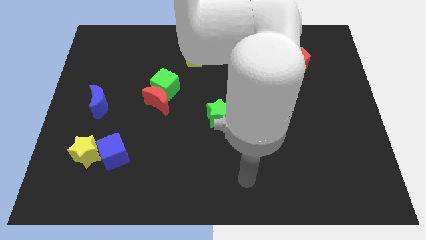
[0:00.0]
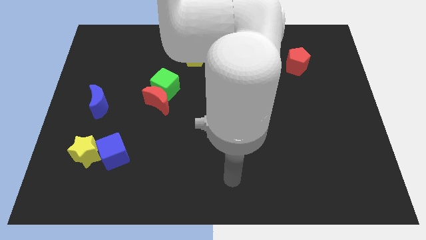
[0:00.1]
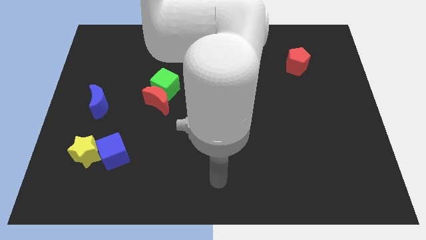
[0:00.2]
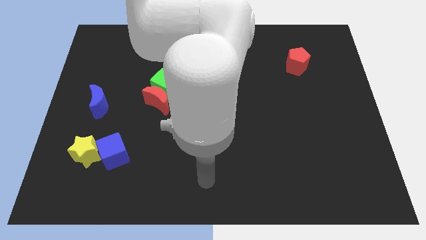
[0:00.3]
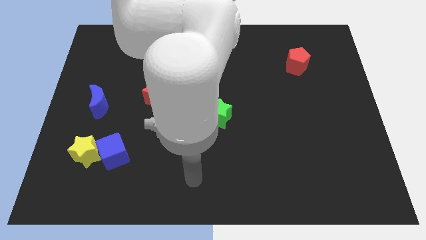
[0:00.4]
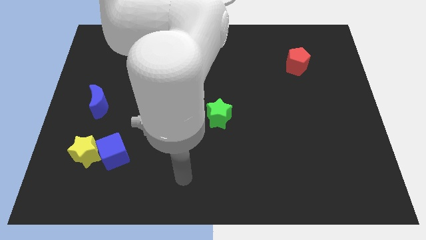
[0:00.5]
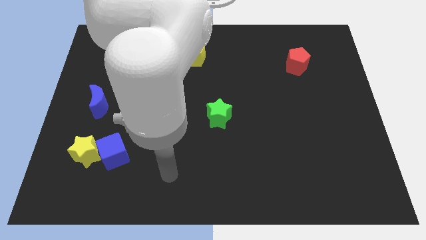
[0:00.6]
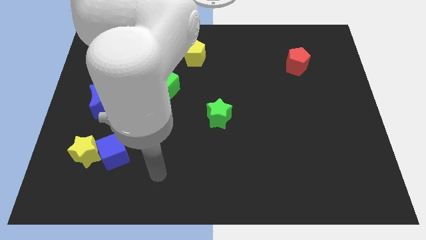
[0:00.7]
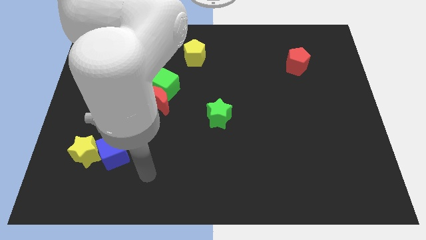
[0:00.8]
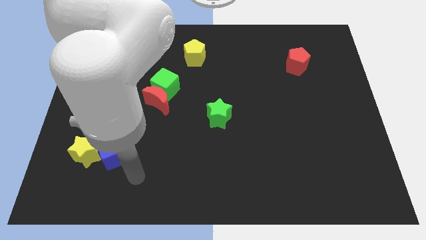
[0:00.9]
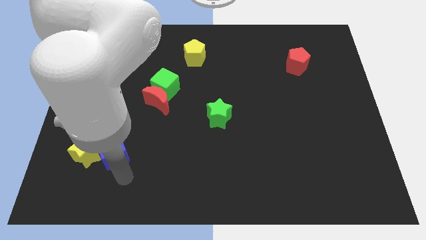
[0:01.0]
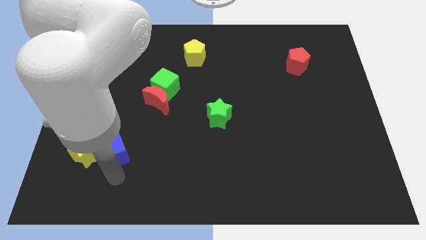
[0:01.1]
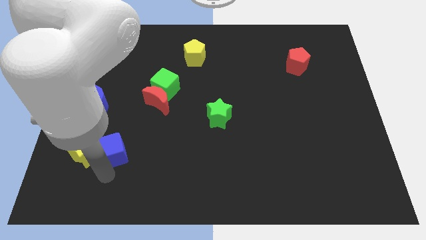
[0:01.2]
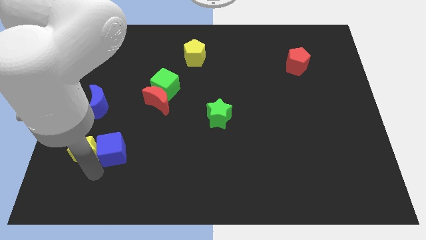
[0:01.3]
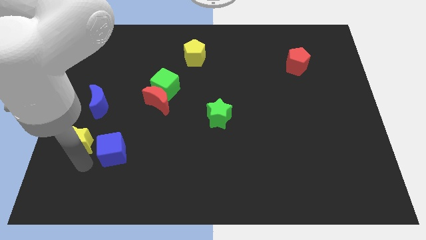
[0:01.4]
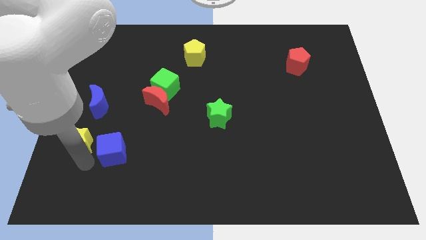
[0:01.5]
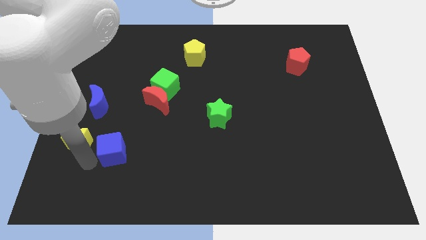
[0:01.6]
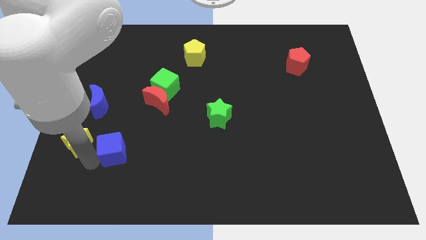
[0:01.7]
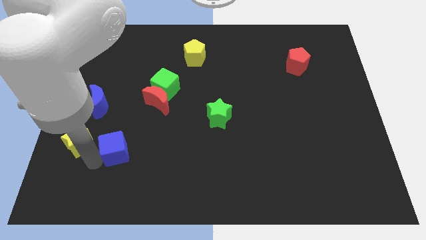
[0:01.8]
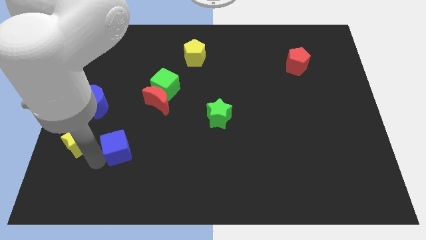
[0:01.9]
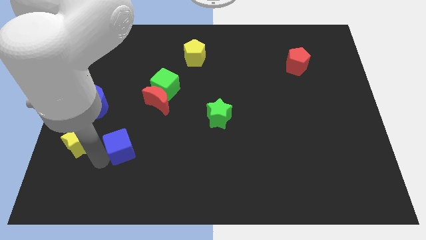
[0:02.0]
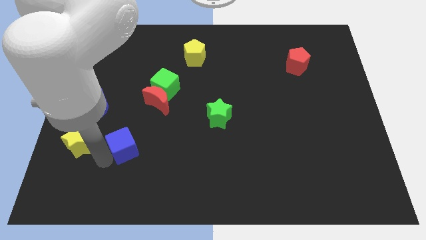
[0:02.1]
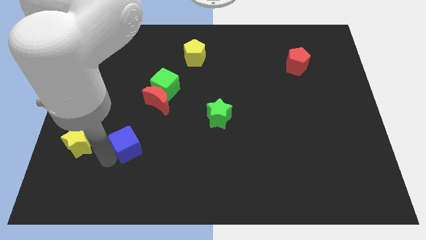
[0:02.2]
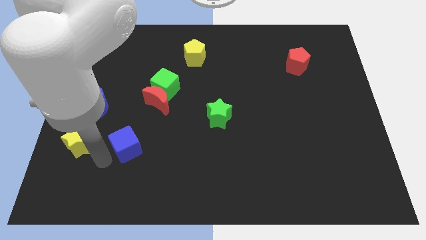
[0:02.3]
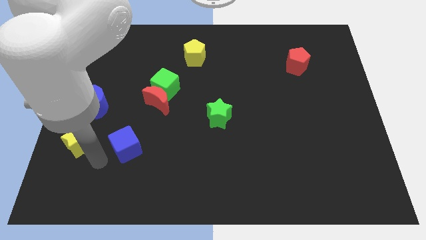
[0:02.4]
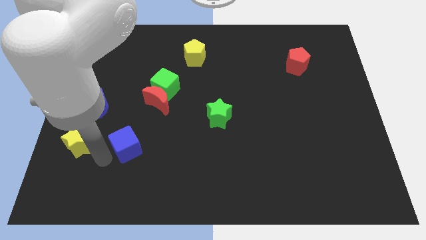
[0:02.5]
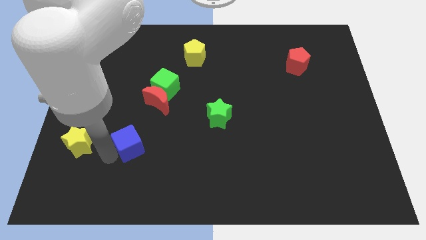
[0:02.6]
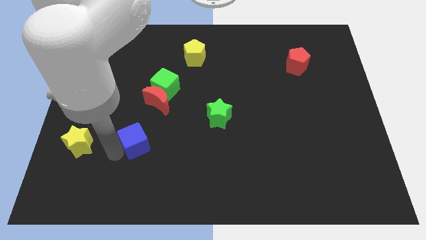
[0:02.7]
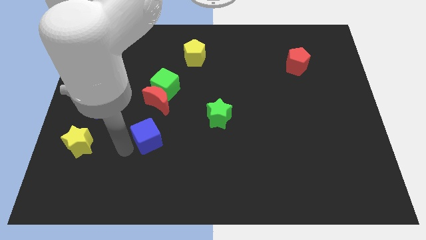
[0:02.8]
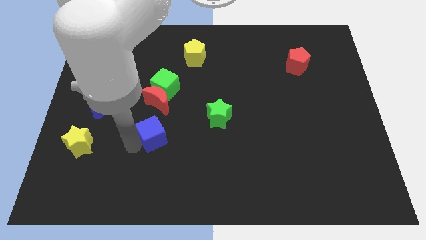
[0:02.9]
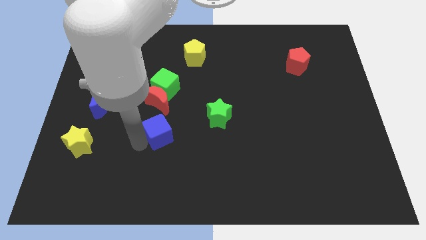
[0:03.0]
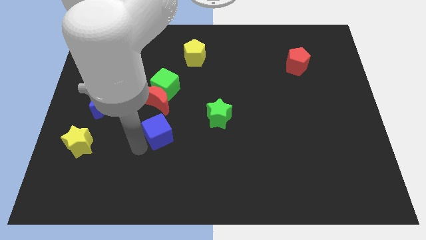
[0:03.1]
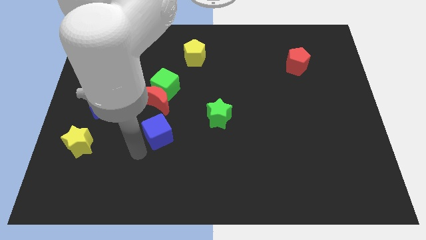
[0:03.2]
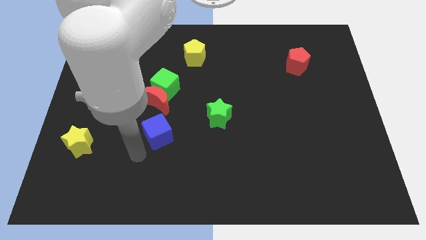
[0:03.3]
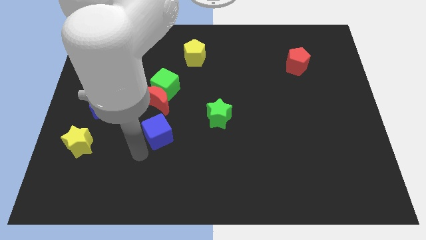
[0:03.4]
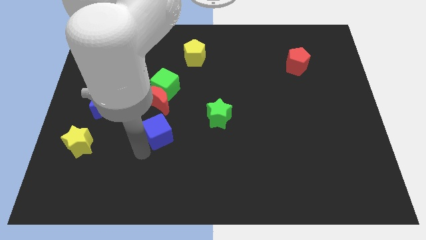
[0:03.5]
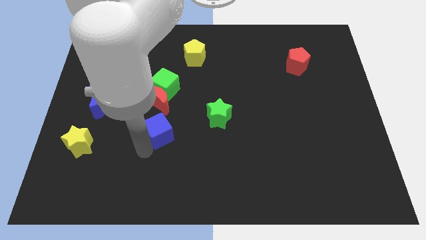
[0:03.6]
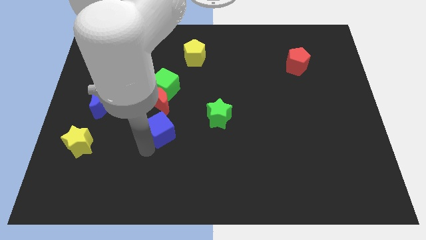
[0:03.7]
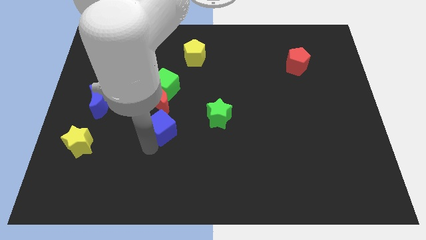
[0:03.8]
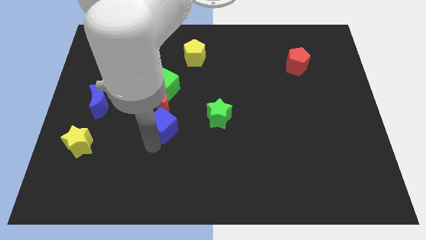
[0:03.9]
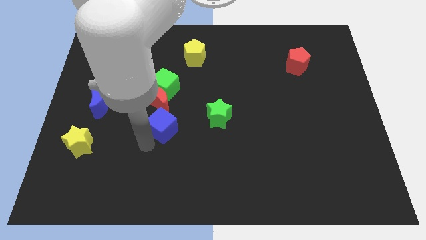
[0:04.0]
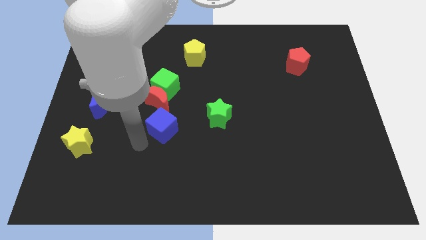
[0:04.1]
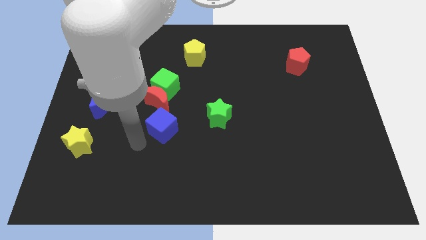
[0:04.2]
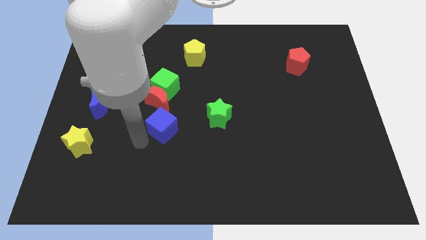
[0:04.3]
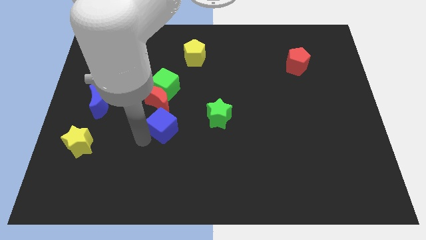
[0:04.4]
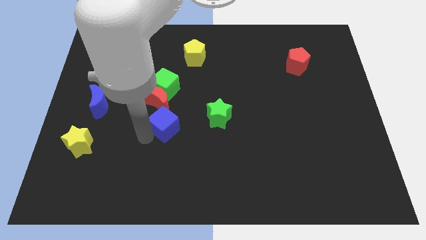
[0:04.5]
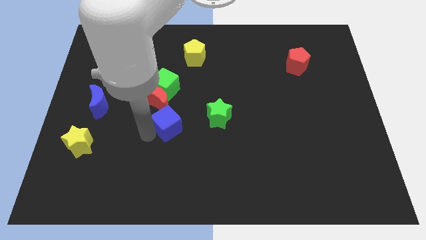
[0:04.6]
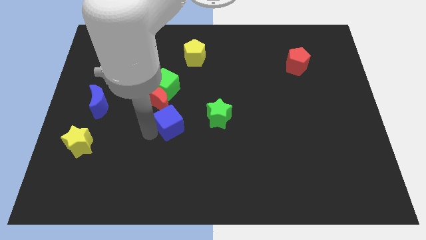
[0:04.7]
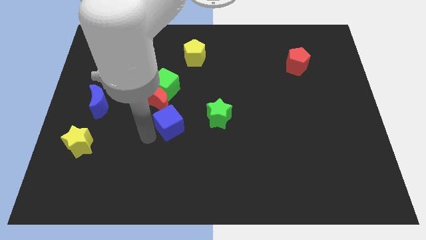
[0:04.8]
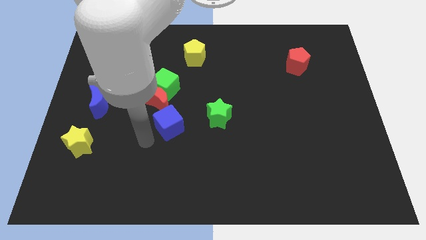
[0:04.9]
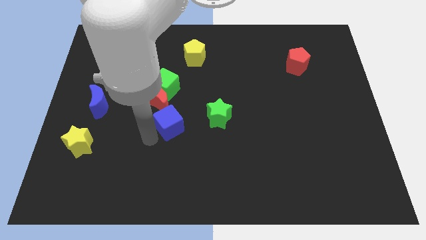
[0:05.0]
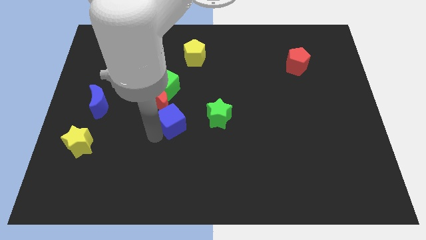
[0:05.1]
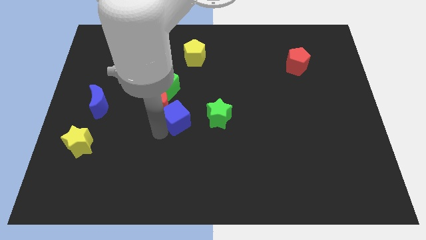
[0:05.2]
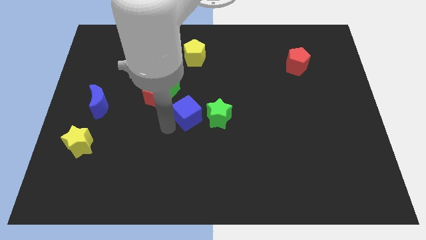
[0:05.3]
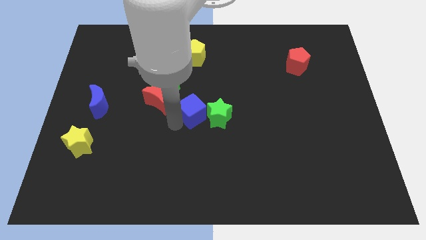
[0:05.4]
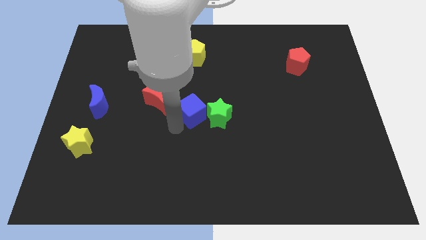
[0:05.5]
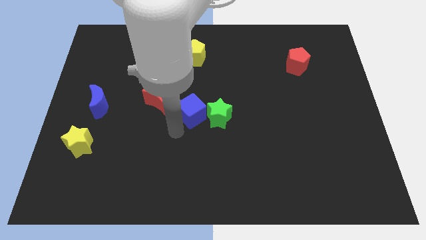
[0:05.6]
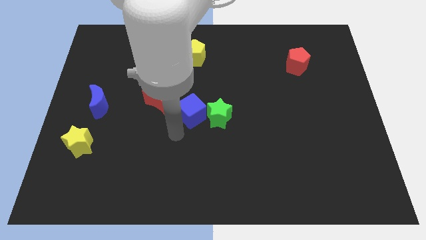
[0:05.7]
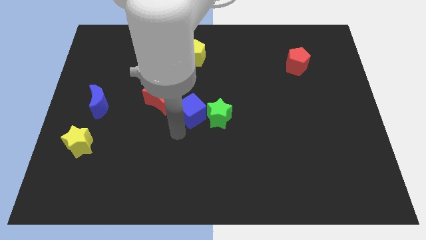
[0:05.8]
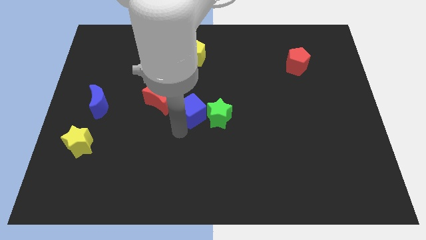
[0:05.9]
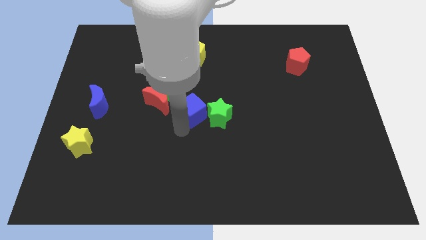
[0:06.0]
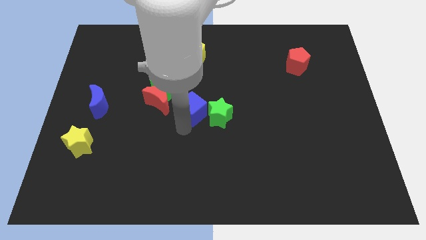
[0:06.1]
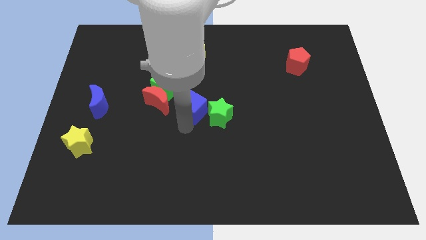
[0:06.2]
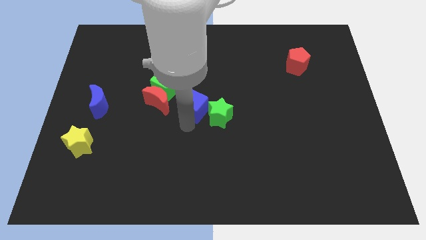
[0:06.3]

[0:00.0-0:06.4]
push the blue cube diagonally up and right

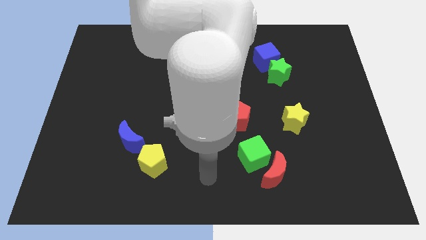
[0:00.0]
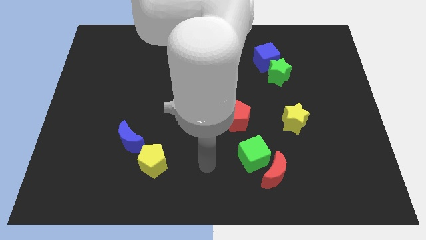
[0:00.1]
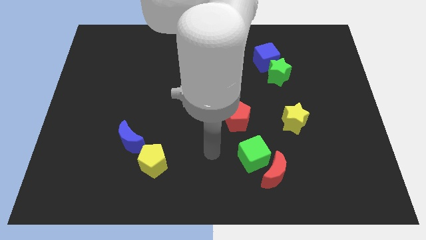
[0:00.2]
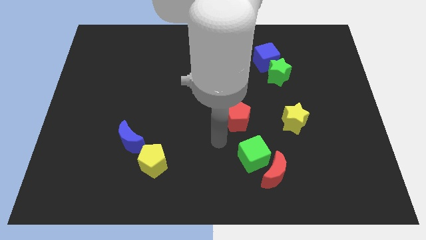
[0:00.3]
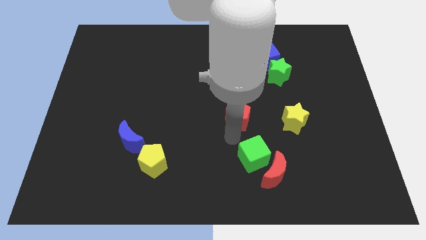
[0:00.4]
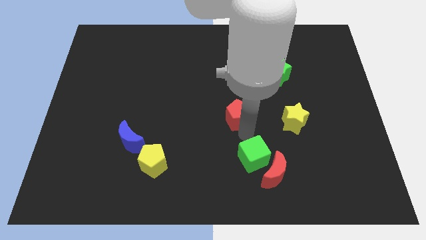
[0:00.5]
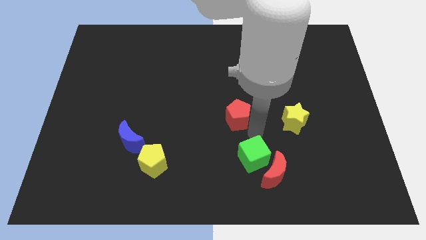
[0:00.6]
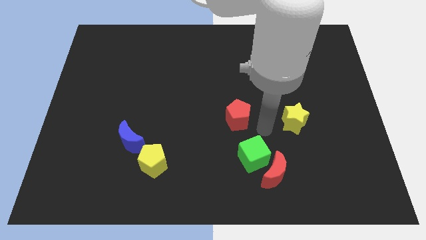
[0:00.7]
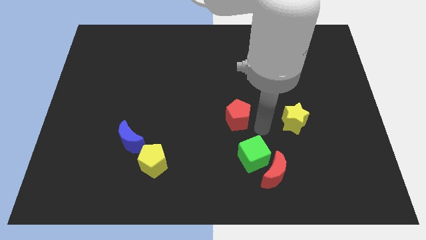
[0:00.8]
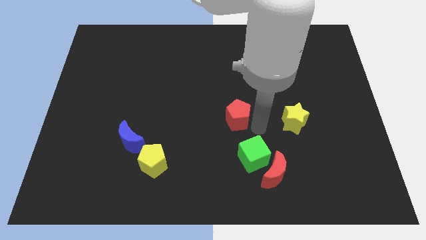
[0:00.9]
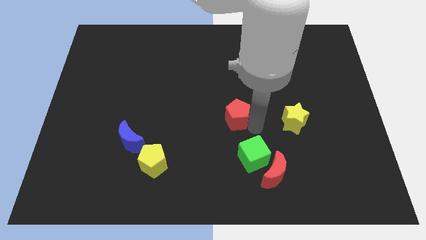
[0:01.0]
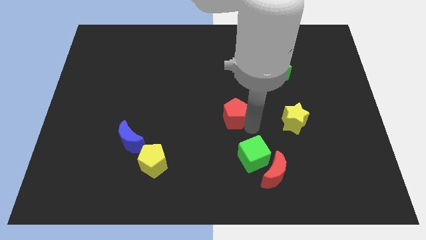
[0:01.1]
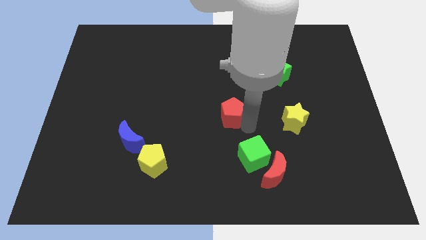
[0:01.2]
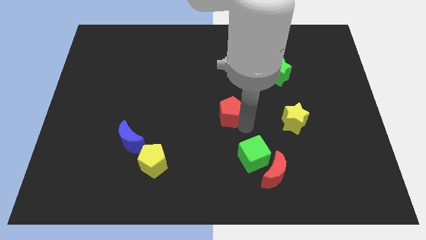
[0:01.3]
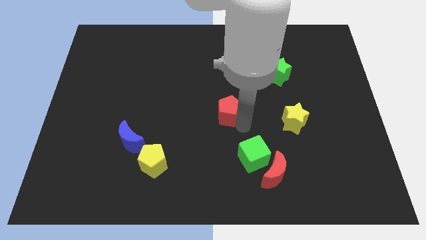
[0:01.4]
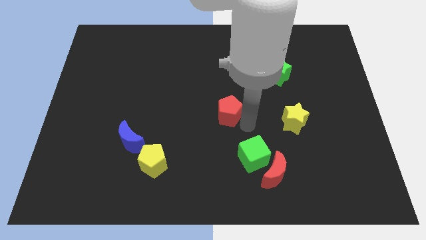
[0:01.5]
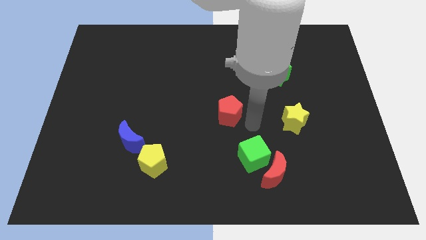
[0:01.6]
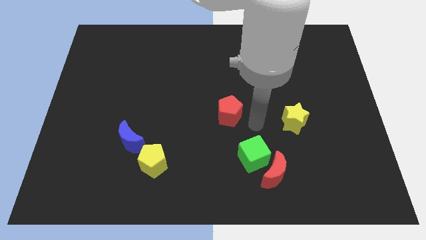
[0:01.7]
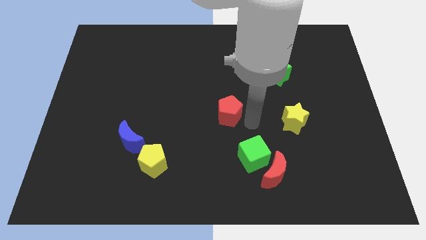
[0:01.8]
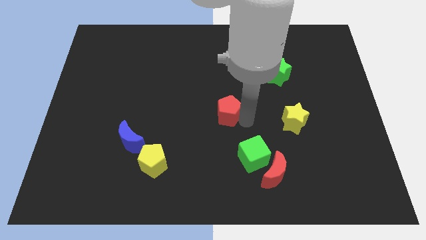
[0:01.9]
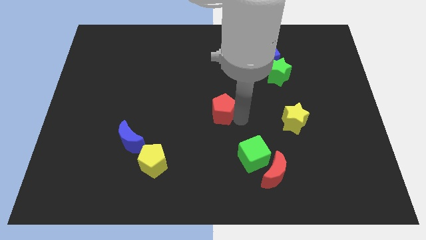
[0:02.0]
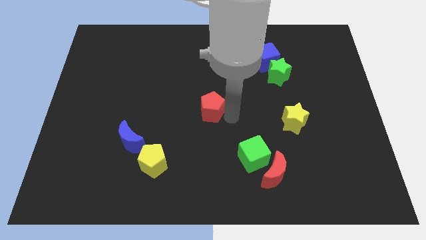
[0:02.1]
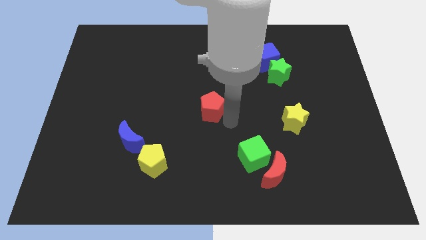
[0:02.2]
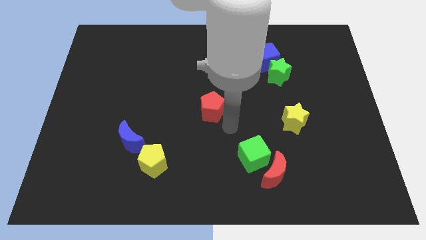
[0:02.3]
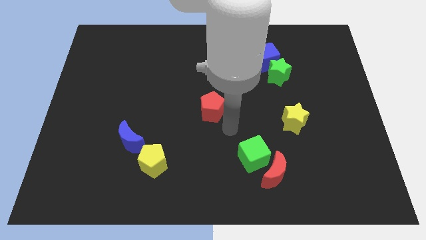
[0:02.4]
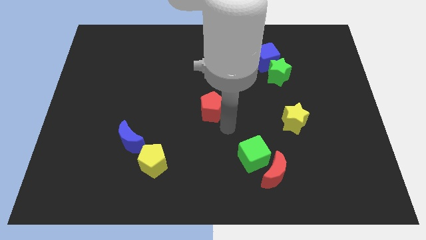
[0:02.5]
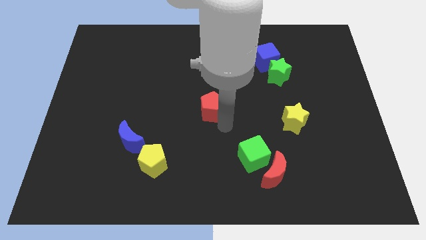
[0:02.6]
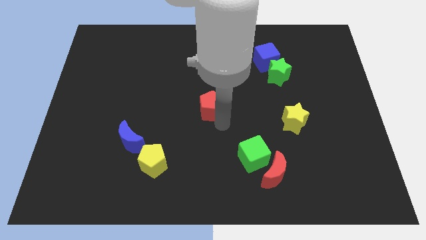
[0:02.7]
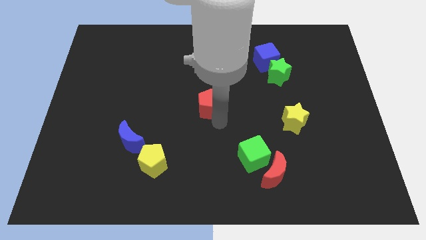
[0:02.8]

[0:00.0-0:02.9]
move the red pentagon a bit diagonally upwards and left
